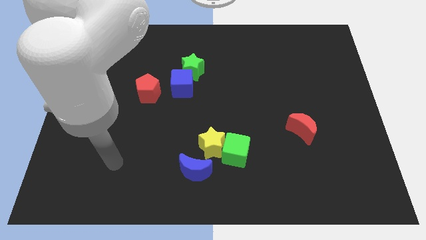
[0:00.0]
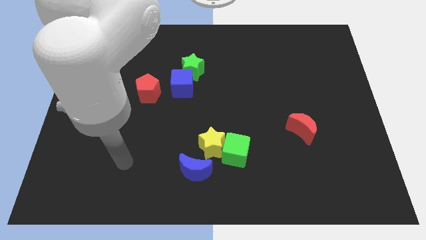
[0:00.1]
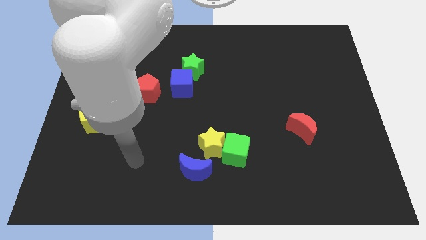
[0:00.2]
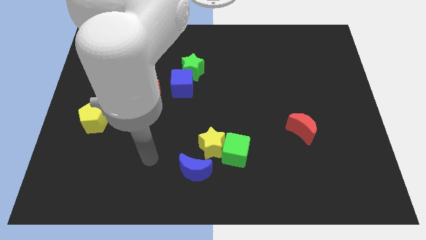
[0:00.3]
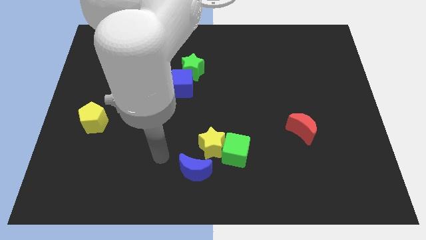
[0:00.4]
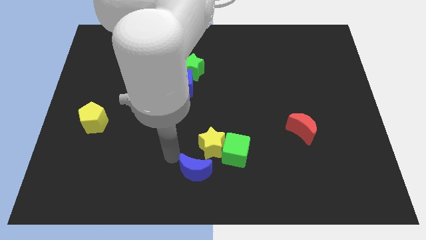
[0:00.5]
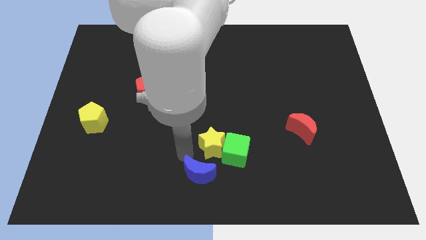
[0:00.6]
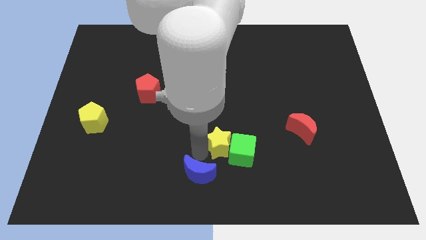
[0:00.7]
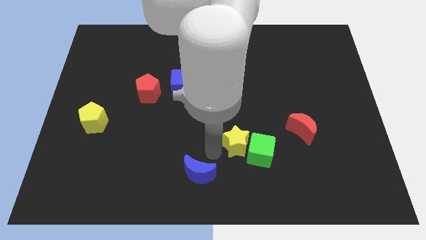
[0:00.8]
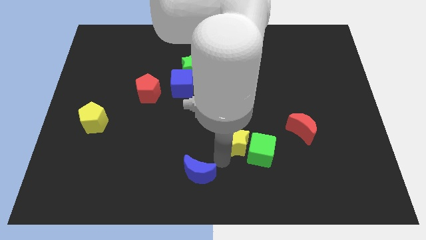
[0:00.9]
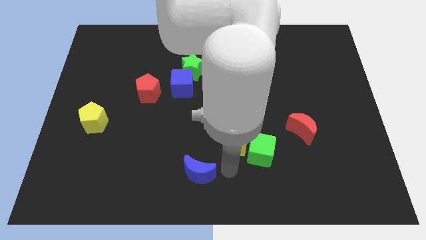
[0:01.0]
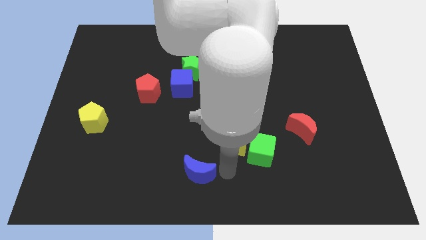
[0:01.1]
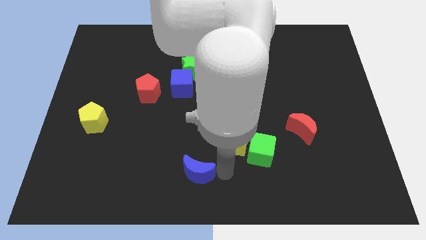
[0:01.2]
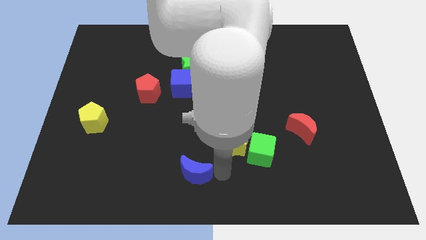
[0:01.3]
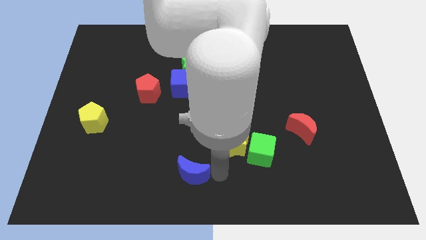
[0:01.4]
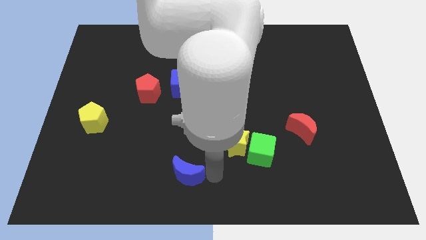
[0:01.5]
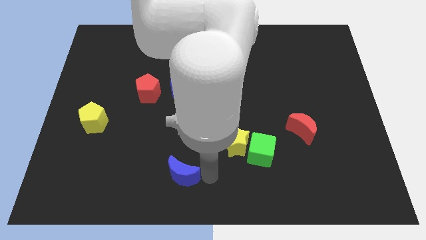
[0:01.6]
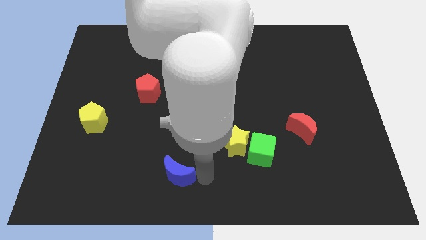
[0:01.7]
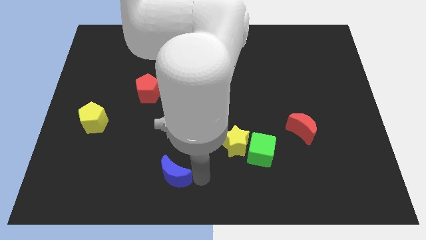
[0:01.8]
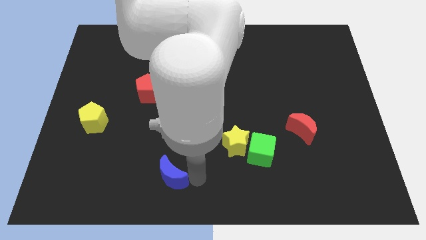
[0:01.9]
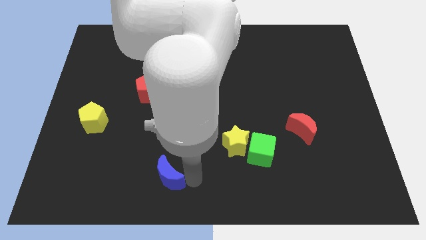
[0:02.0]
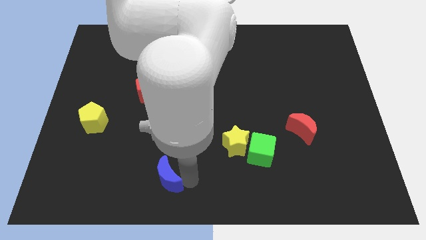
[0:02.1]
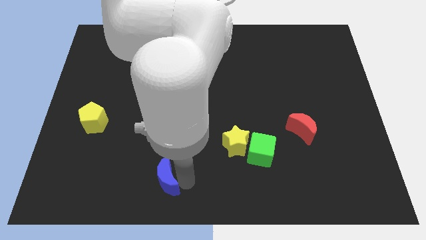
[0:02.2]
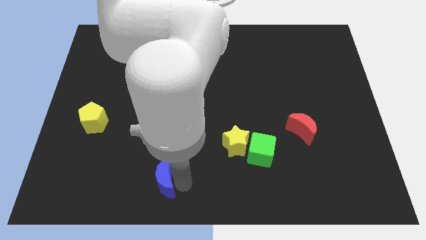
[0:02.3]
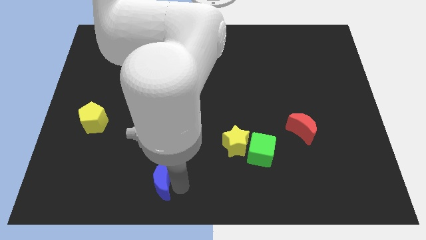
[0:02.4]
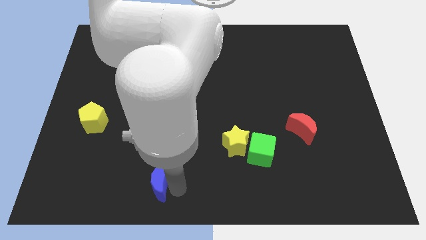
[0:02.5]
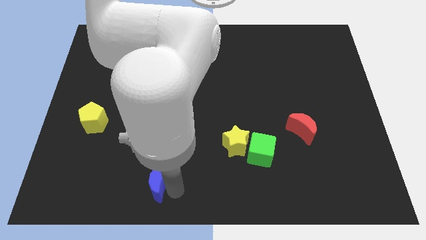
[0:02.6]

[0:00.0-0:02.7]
move the blue moon a little to the left

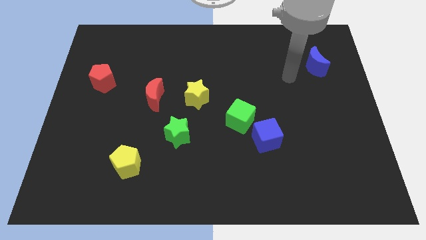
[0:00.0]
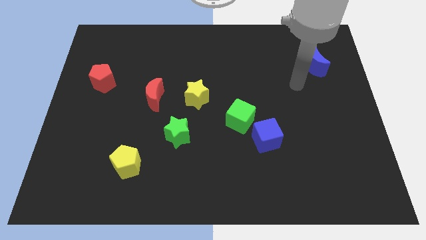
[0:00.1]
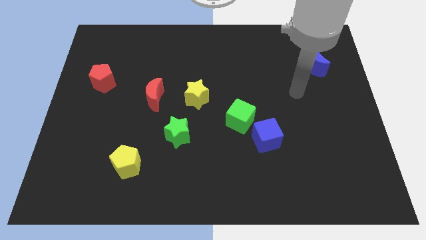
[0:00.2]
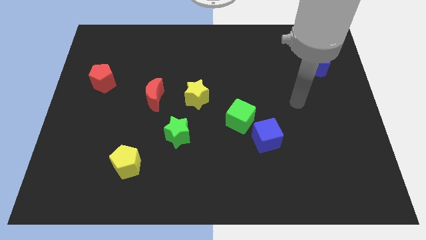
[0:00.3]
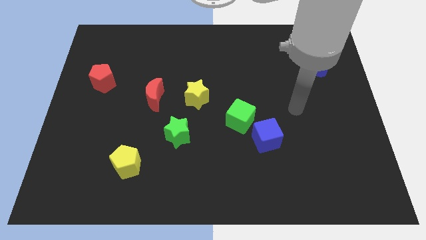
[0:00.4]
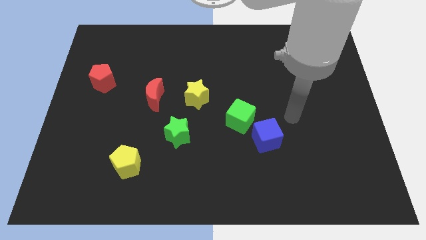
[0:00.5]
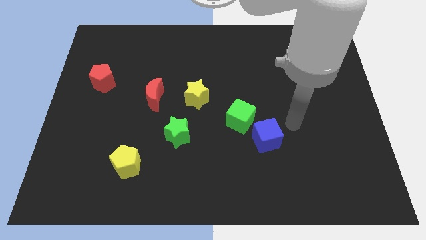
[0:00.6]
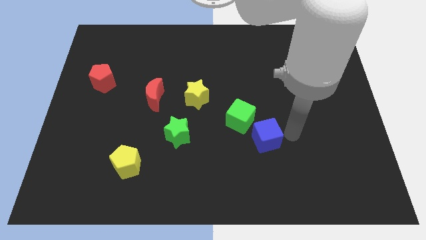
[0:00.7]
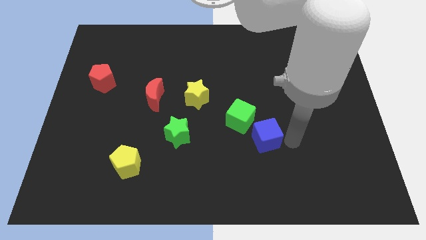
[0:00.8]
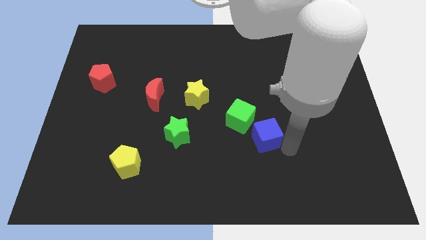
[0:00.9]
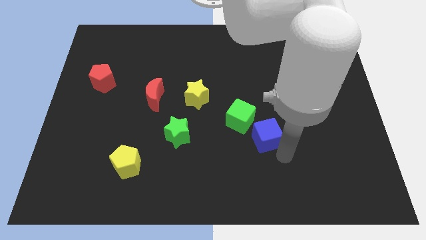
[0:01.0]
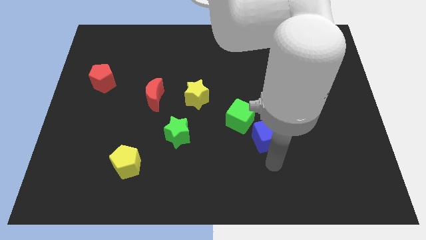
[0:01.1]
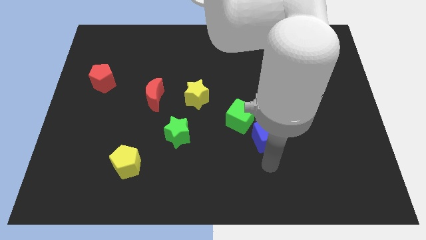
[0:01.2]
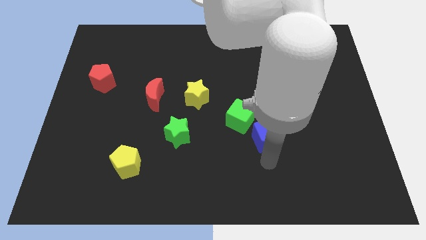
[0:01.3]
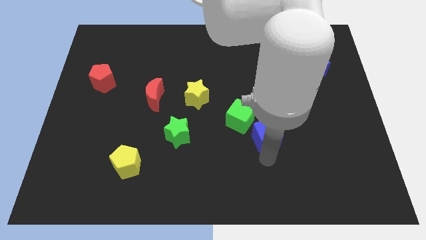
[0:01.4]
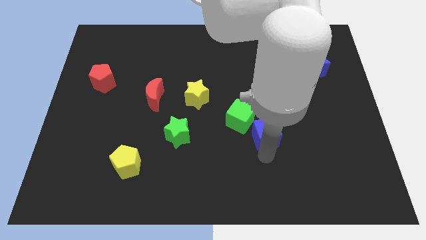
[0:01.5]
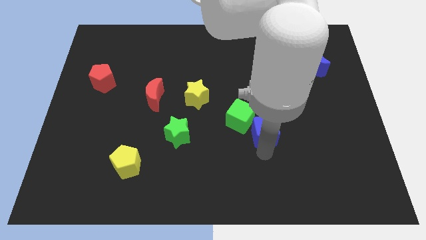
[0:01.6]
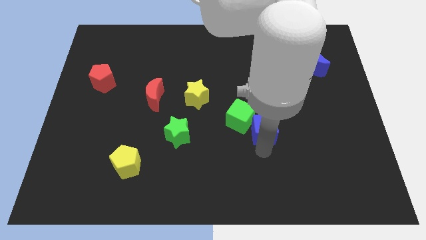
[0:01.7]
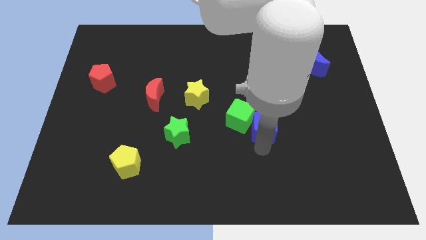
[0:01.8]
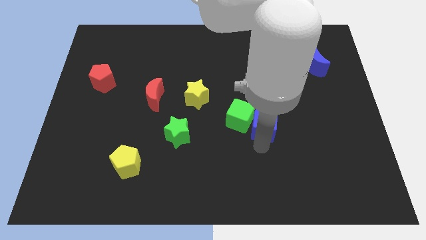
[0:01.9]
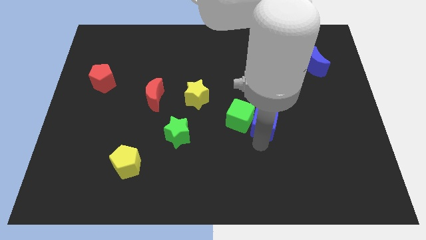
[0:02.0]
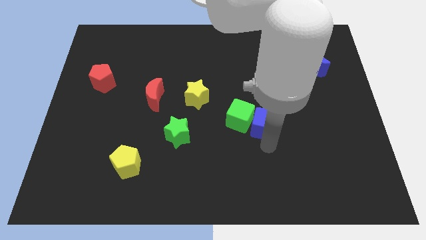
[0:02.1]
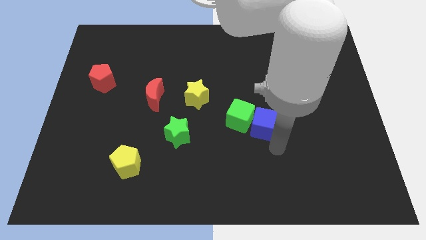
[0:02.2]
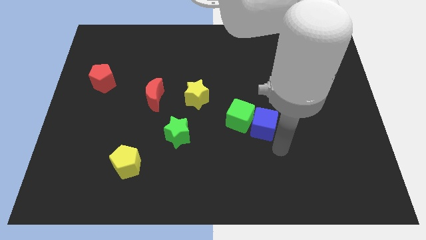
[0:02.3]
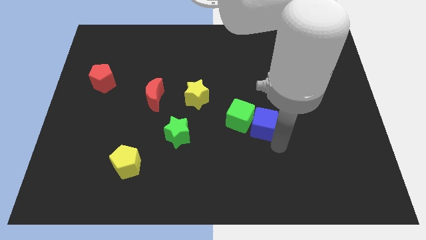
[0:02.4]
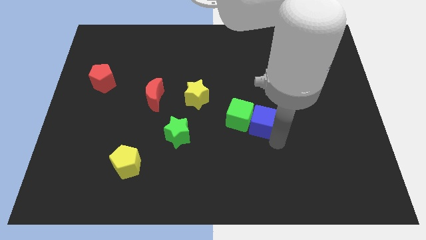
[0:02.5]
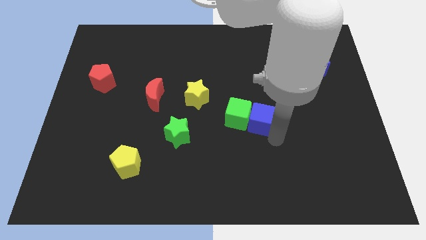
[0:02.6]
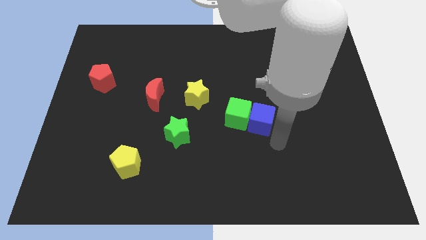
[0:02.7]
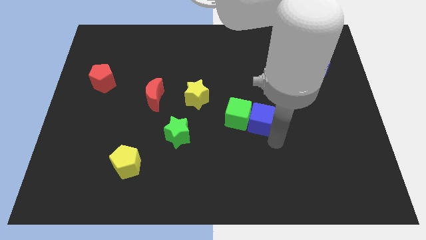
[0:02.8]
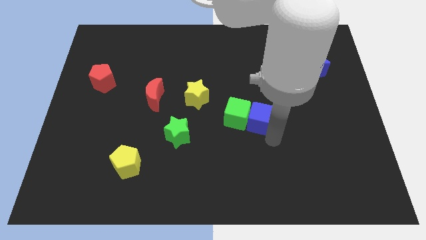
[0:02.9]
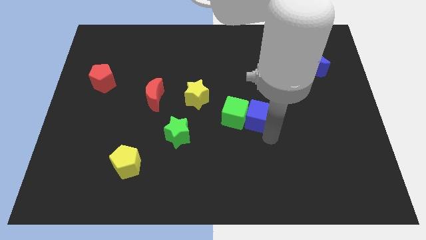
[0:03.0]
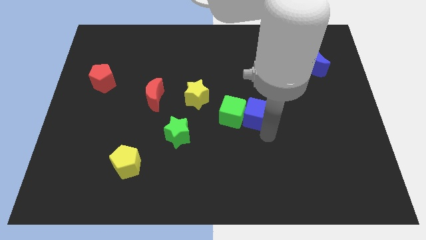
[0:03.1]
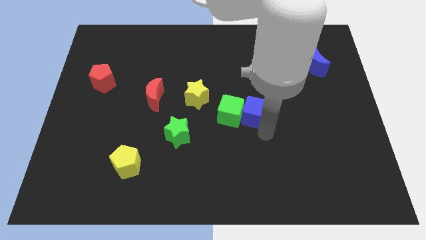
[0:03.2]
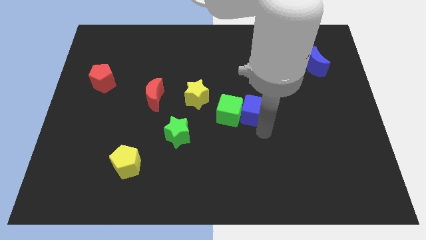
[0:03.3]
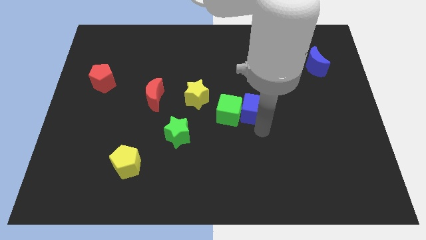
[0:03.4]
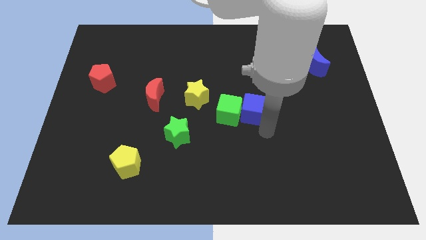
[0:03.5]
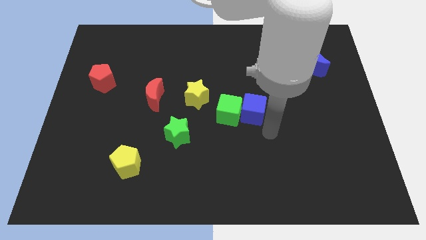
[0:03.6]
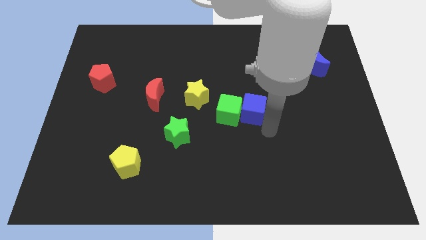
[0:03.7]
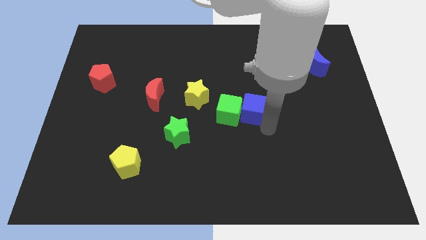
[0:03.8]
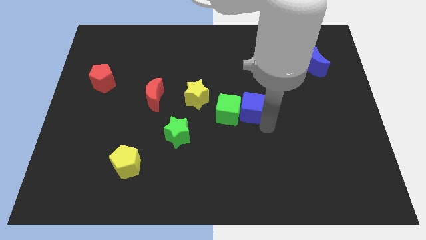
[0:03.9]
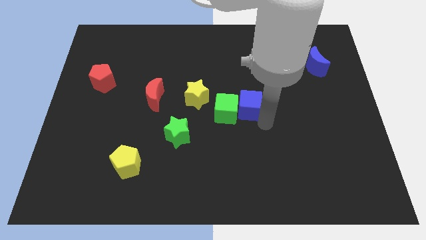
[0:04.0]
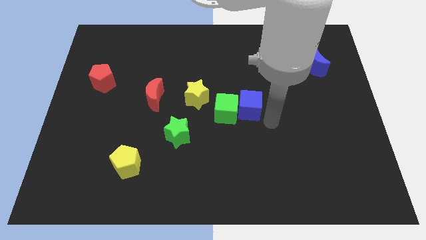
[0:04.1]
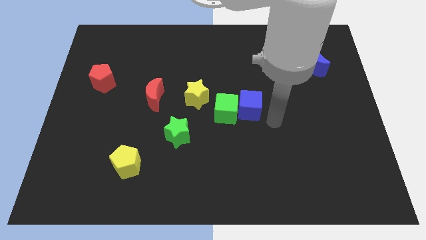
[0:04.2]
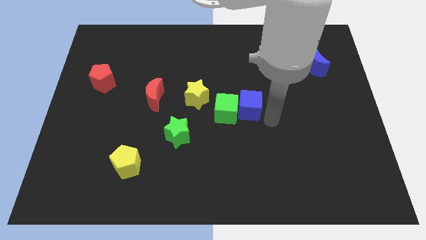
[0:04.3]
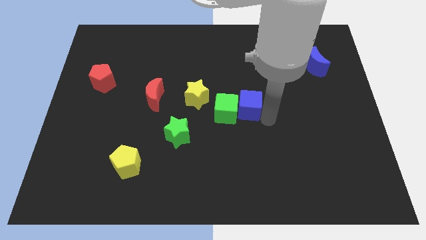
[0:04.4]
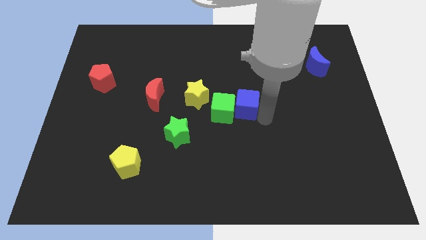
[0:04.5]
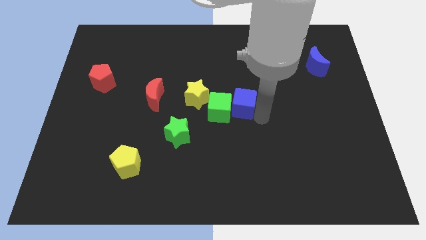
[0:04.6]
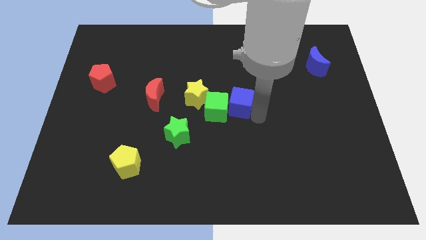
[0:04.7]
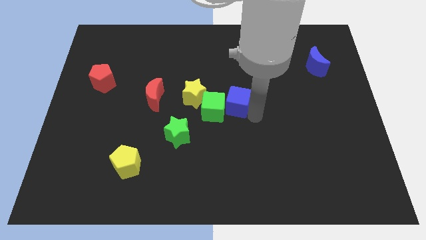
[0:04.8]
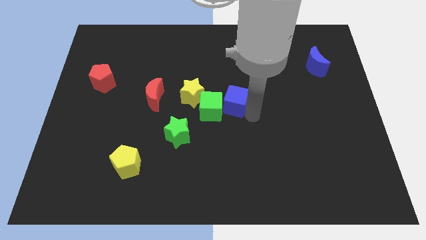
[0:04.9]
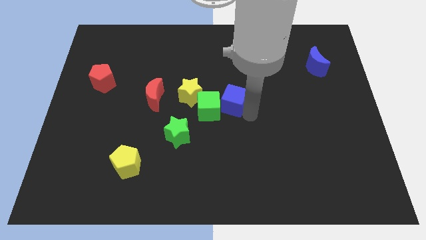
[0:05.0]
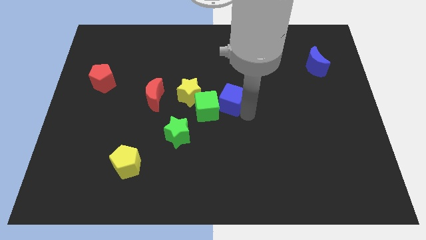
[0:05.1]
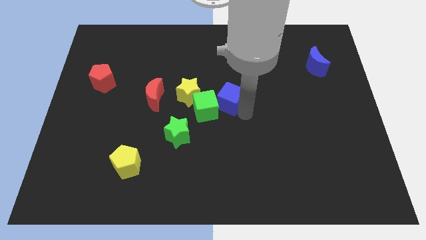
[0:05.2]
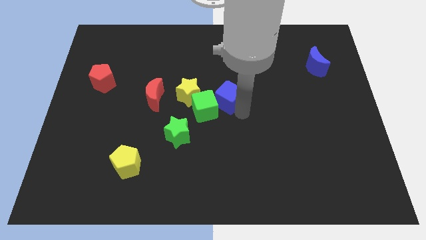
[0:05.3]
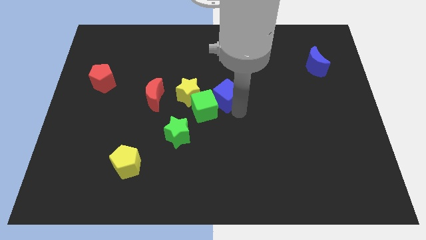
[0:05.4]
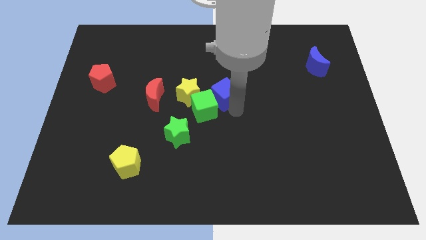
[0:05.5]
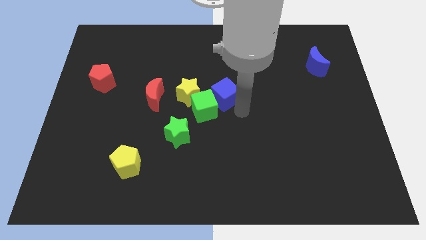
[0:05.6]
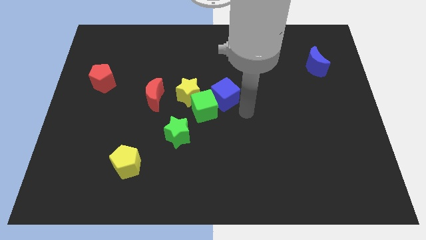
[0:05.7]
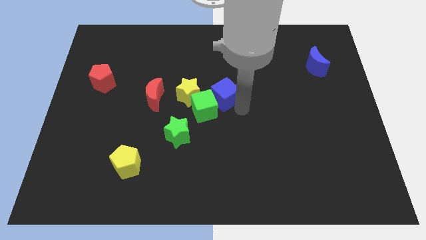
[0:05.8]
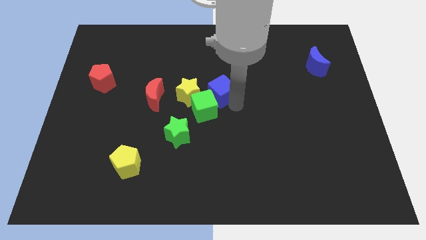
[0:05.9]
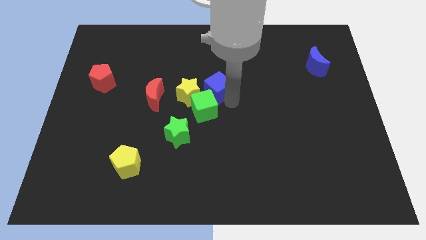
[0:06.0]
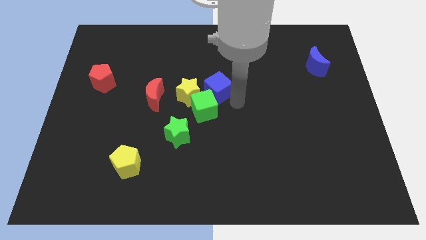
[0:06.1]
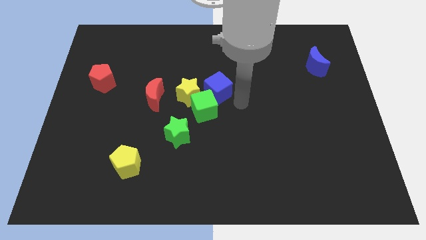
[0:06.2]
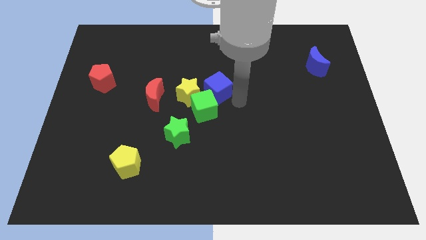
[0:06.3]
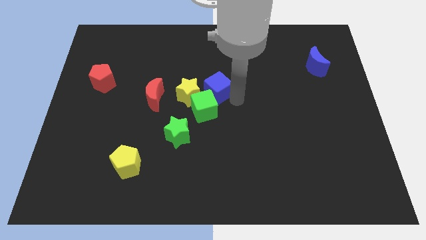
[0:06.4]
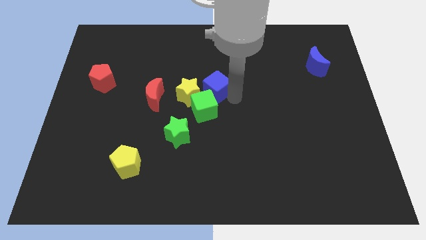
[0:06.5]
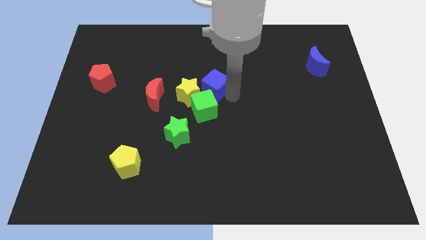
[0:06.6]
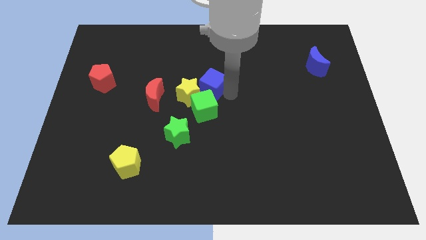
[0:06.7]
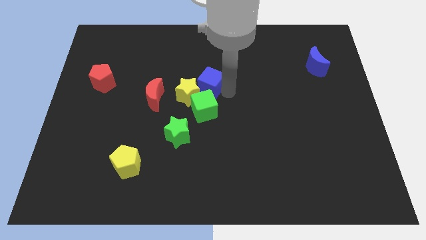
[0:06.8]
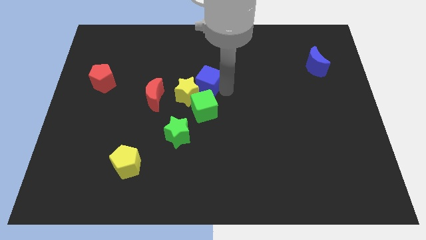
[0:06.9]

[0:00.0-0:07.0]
slide the blue cube upwards and to the left diagonally
